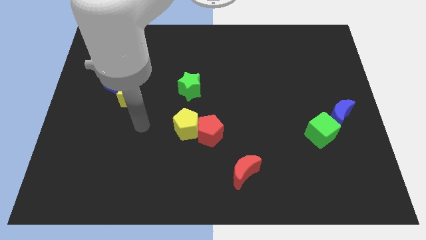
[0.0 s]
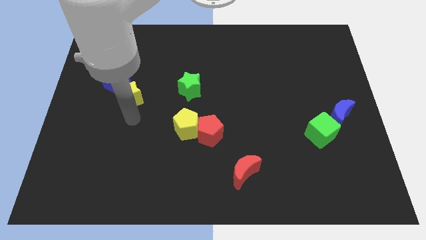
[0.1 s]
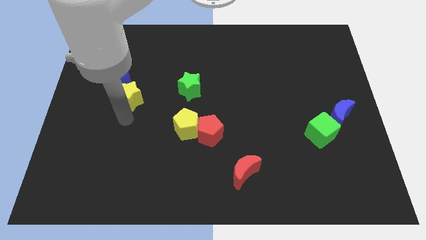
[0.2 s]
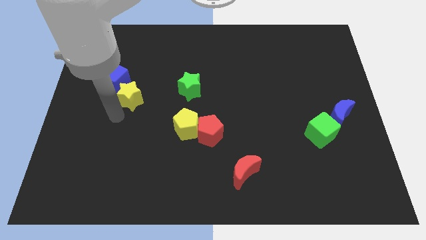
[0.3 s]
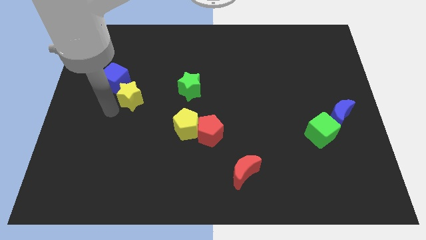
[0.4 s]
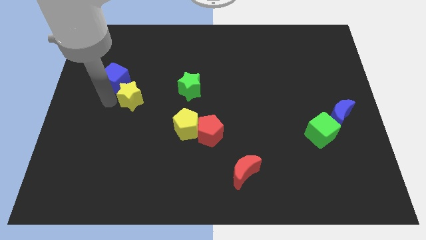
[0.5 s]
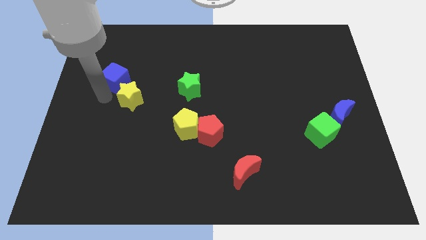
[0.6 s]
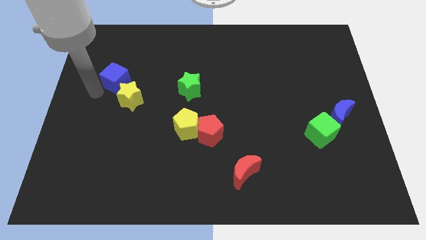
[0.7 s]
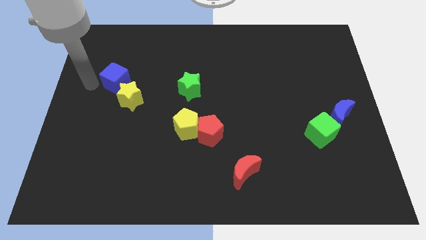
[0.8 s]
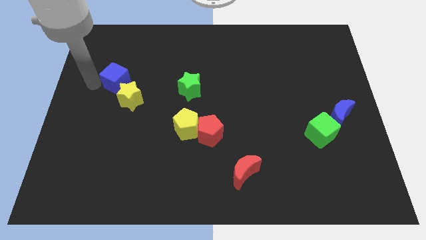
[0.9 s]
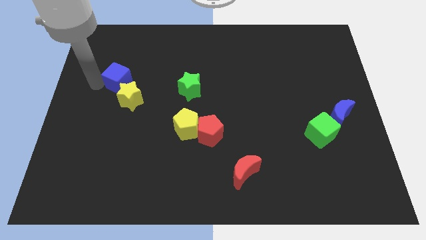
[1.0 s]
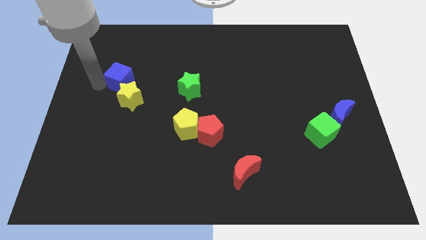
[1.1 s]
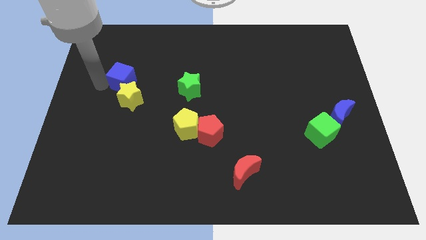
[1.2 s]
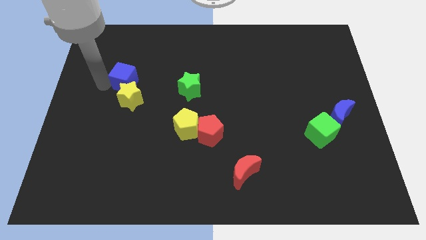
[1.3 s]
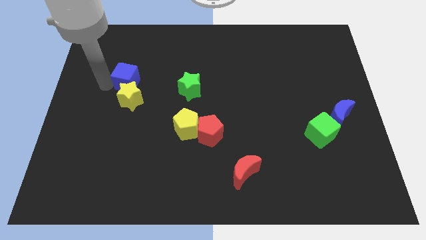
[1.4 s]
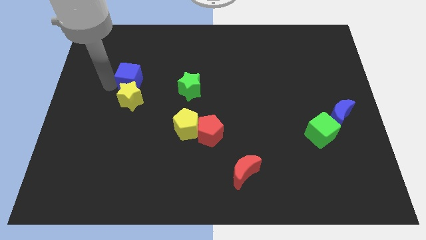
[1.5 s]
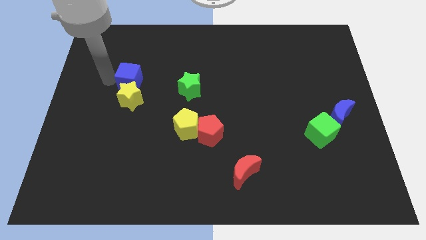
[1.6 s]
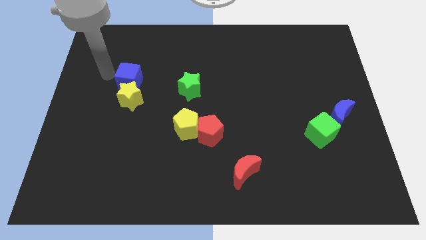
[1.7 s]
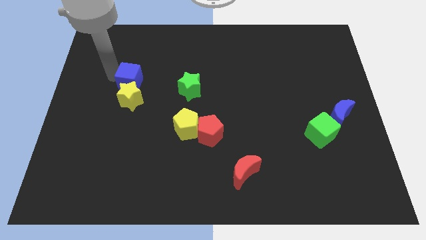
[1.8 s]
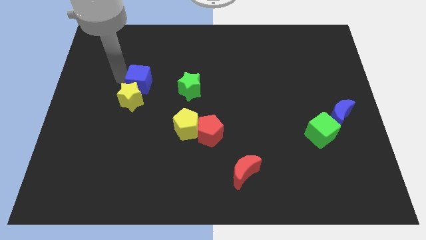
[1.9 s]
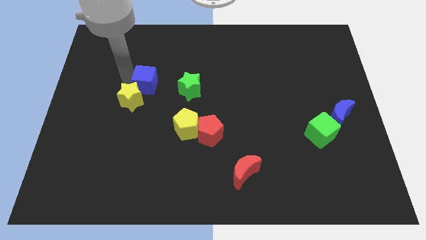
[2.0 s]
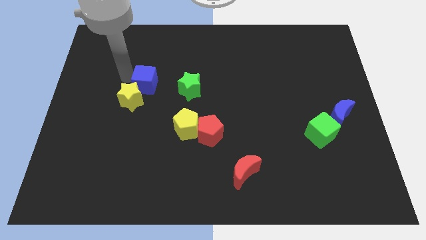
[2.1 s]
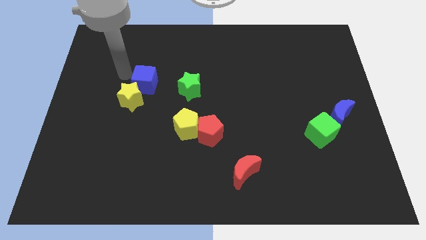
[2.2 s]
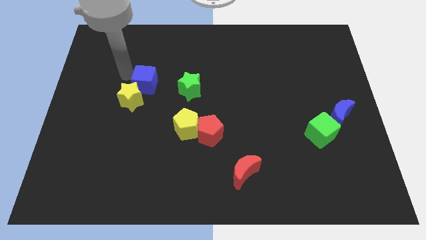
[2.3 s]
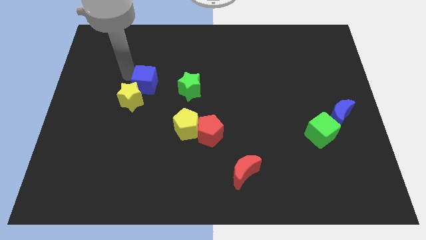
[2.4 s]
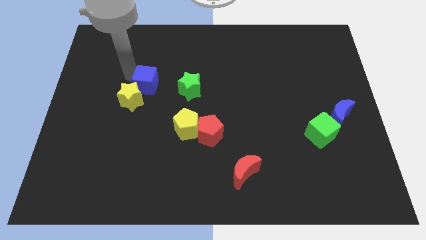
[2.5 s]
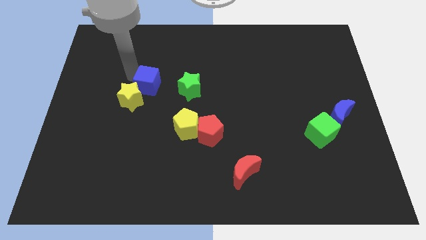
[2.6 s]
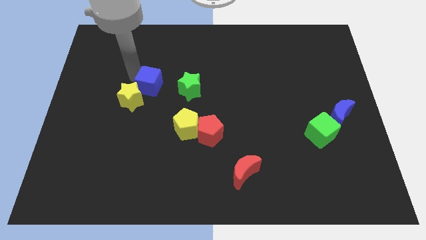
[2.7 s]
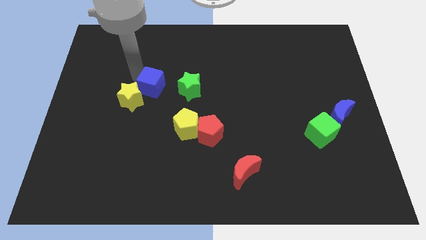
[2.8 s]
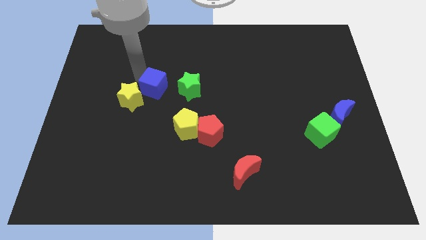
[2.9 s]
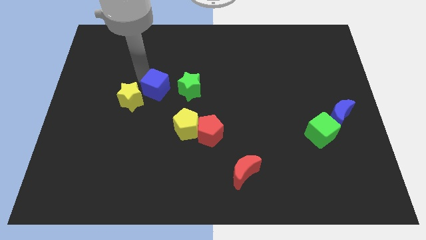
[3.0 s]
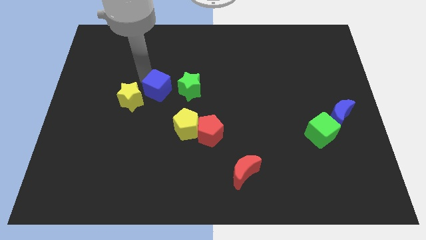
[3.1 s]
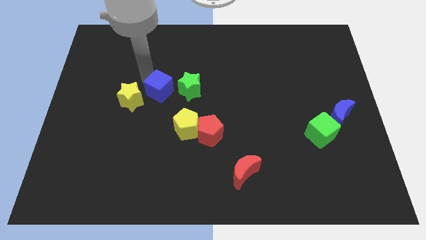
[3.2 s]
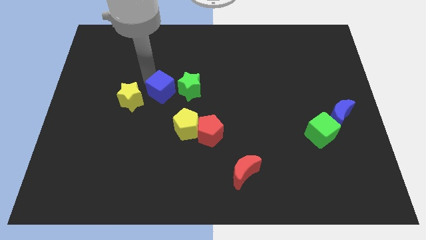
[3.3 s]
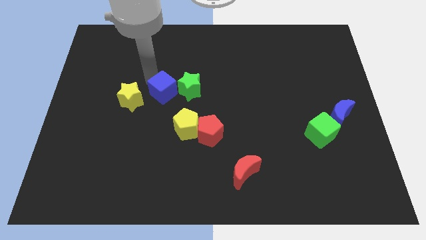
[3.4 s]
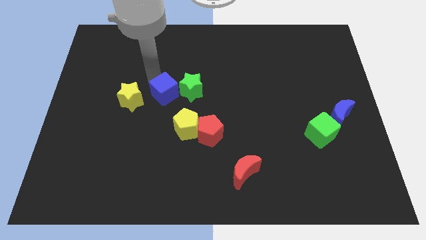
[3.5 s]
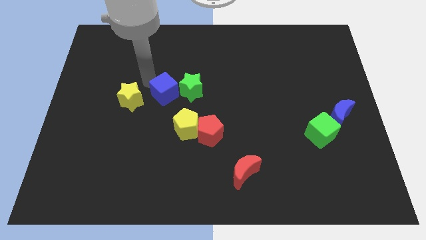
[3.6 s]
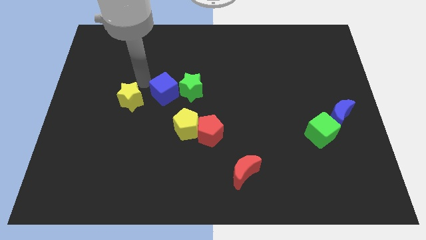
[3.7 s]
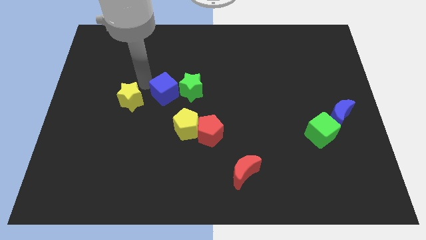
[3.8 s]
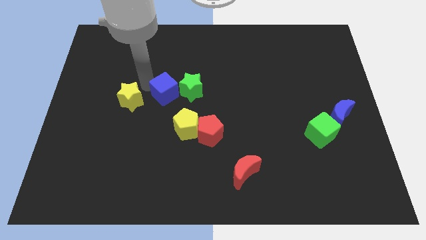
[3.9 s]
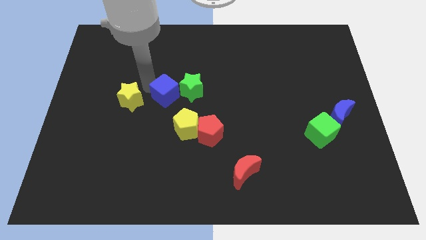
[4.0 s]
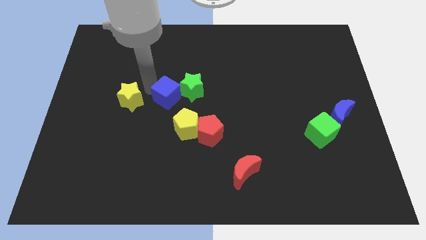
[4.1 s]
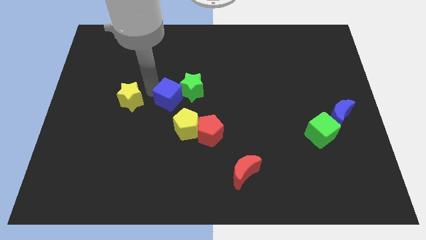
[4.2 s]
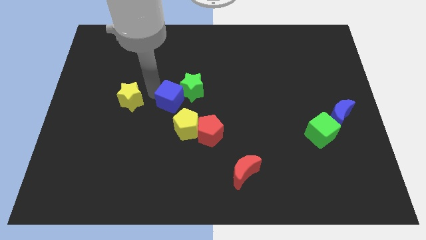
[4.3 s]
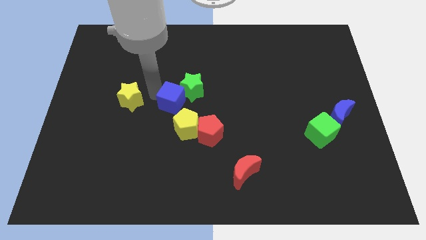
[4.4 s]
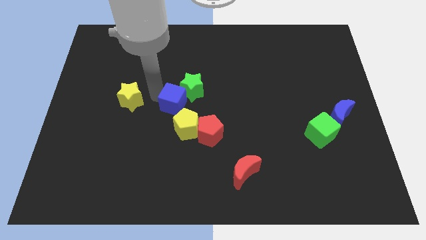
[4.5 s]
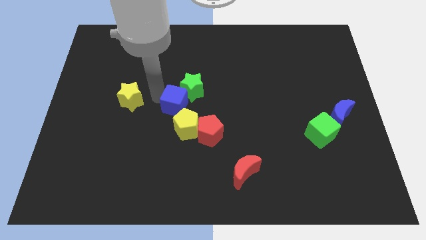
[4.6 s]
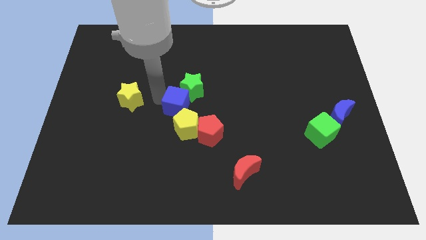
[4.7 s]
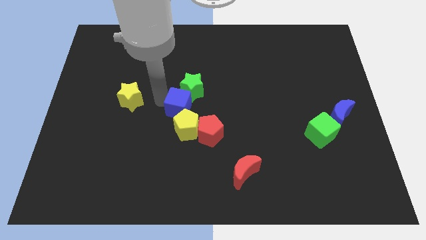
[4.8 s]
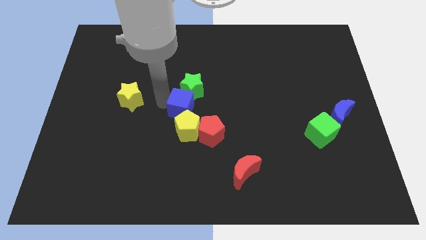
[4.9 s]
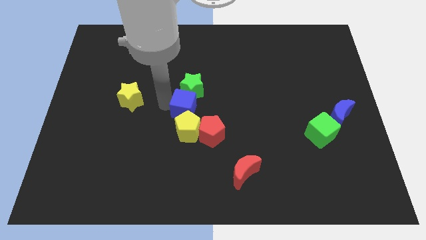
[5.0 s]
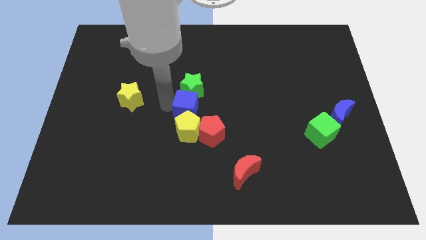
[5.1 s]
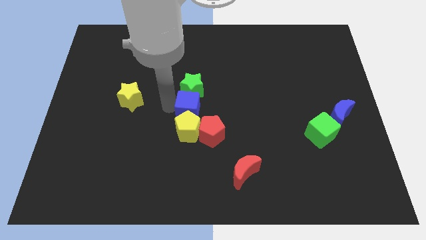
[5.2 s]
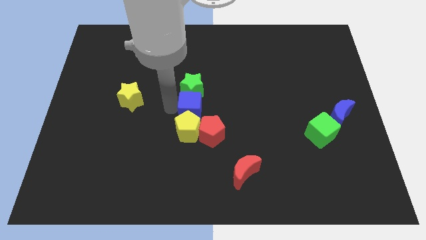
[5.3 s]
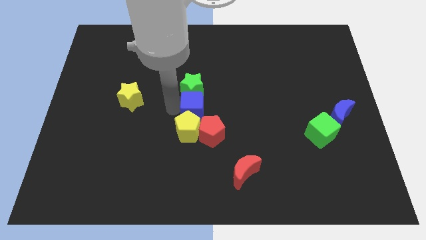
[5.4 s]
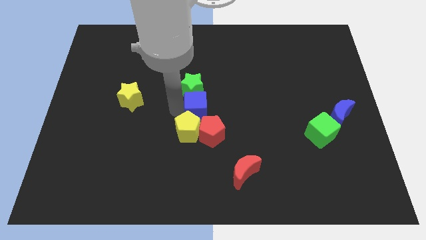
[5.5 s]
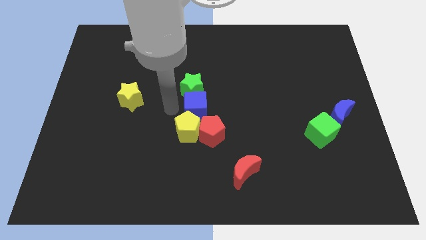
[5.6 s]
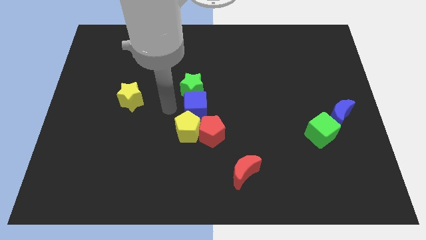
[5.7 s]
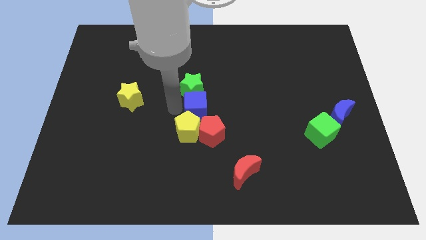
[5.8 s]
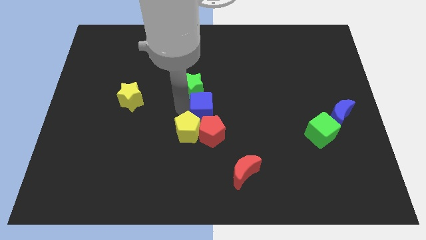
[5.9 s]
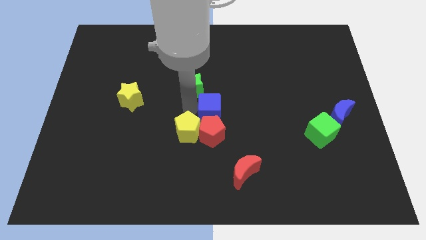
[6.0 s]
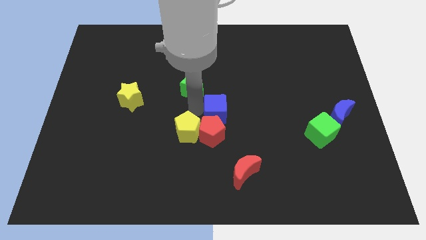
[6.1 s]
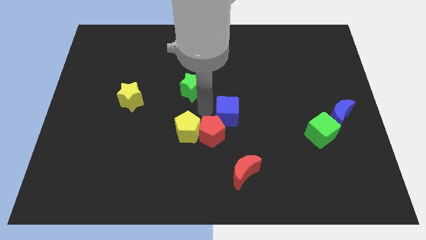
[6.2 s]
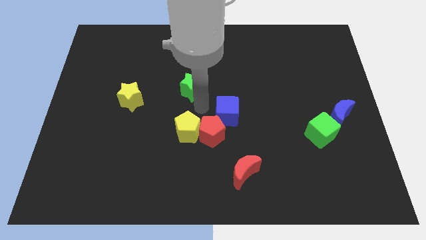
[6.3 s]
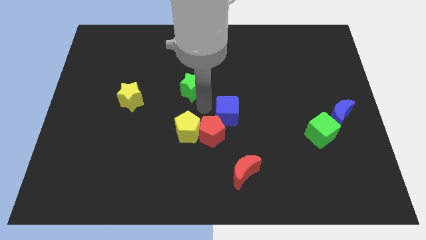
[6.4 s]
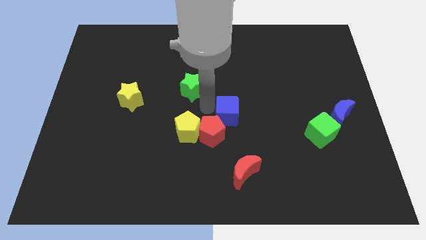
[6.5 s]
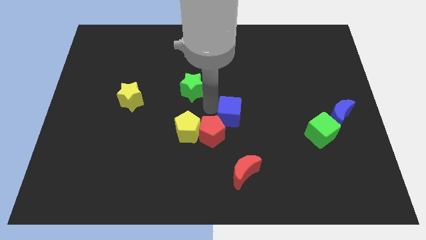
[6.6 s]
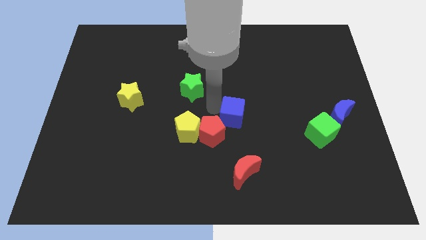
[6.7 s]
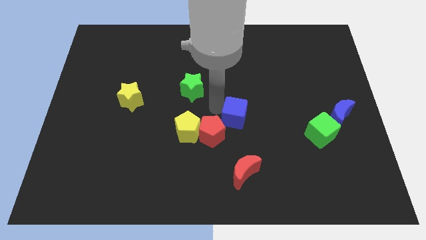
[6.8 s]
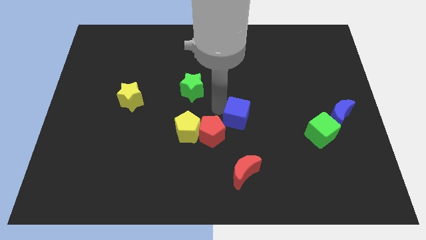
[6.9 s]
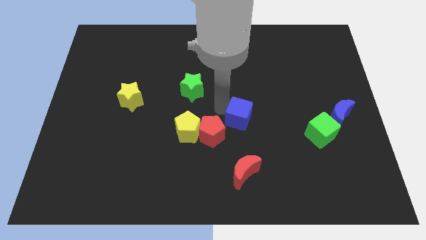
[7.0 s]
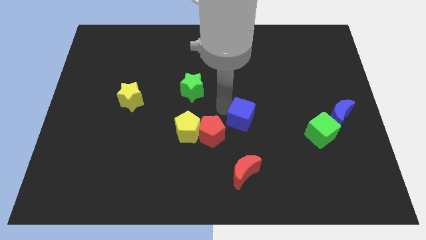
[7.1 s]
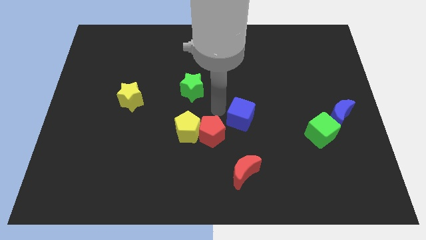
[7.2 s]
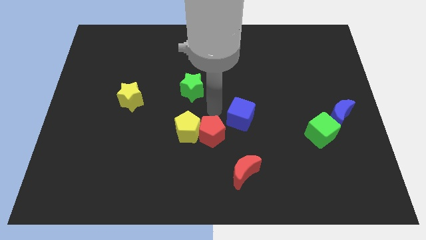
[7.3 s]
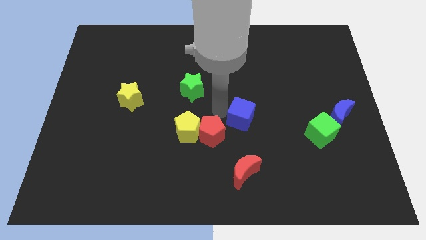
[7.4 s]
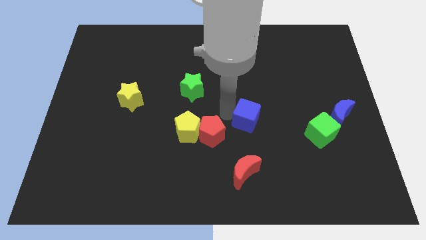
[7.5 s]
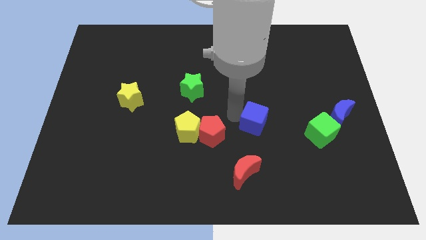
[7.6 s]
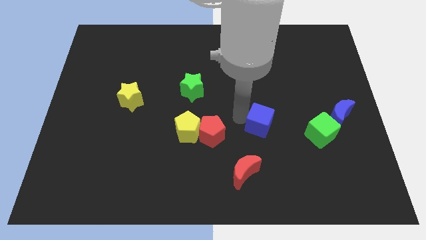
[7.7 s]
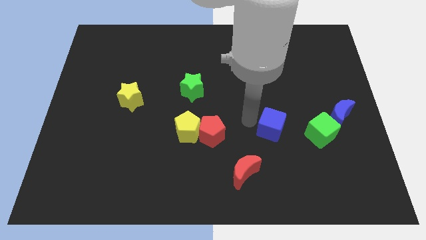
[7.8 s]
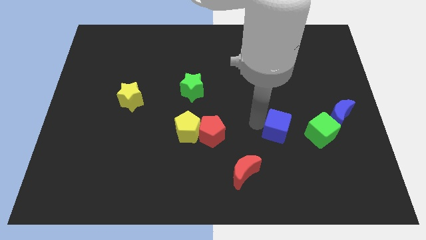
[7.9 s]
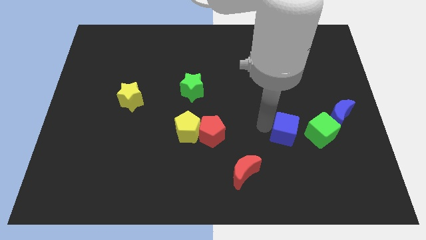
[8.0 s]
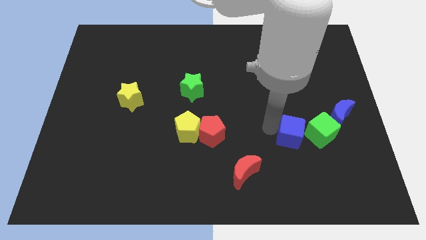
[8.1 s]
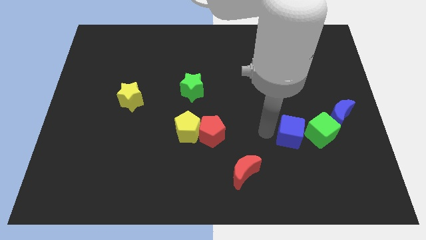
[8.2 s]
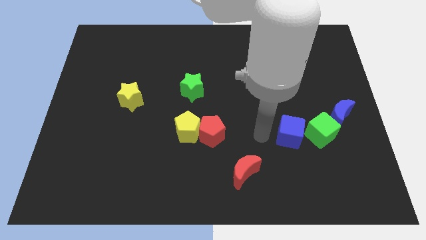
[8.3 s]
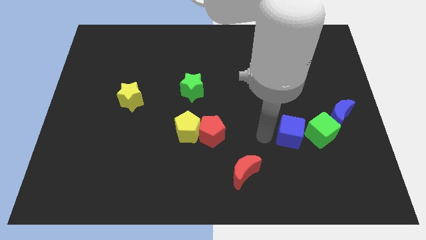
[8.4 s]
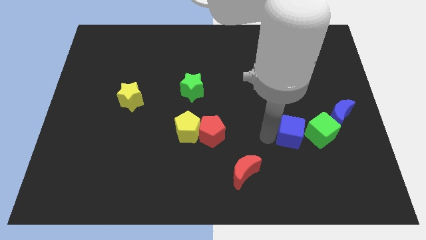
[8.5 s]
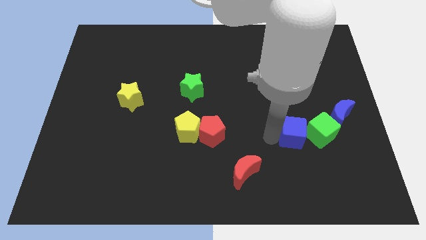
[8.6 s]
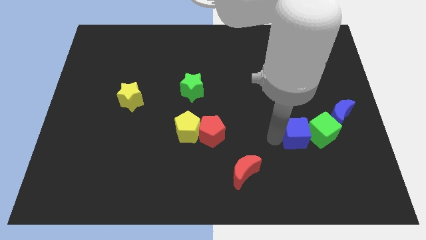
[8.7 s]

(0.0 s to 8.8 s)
slide the blue cube towards the green cube
